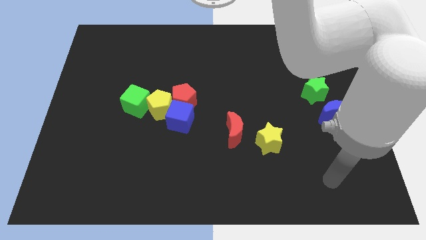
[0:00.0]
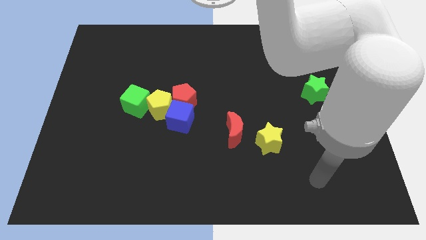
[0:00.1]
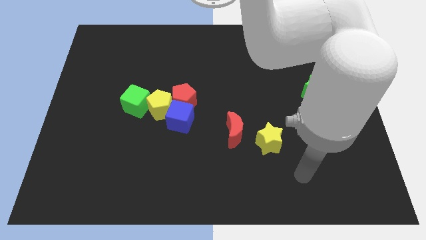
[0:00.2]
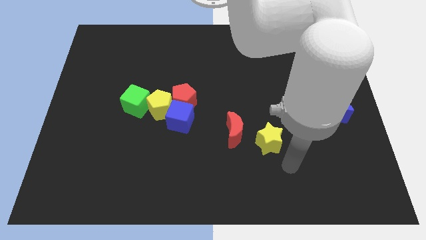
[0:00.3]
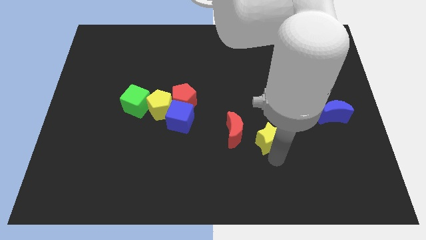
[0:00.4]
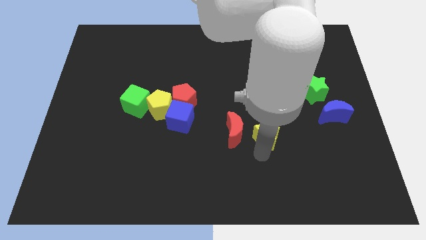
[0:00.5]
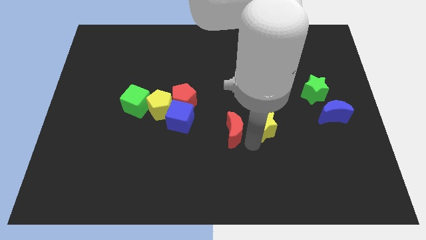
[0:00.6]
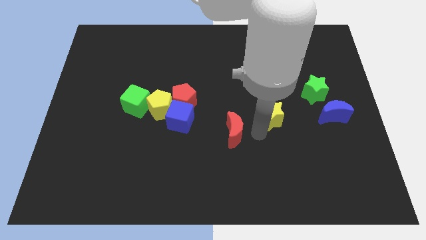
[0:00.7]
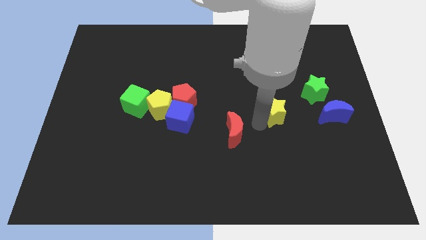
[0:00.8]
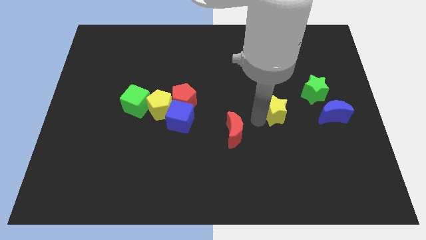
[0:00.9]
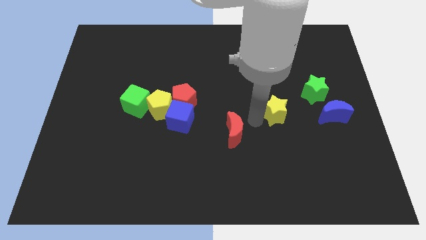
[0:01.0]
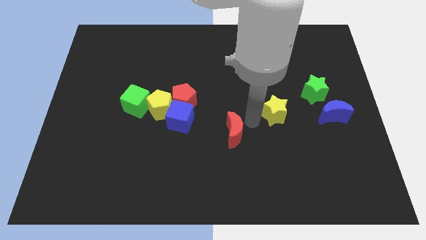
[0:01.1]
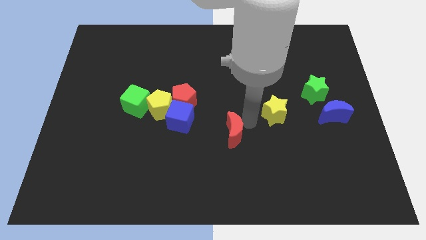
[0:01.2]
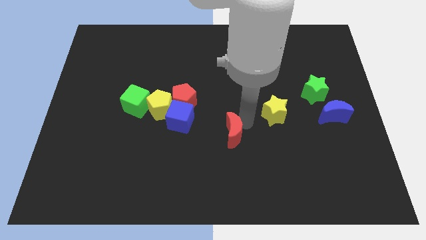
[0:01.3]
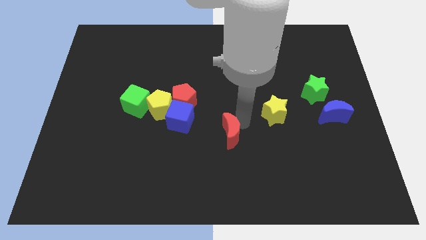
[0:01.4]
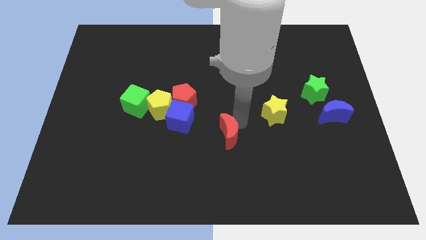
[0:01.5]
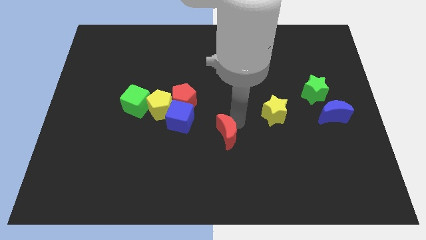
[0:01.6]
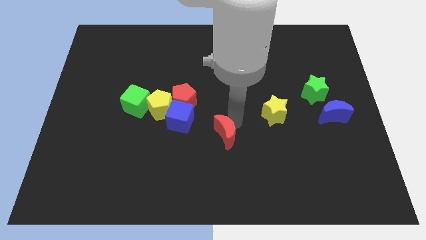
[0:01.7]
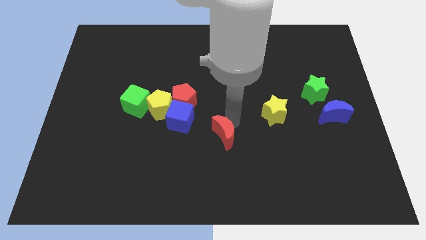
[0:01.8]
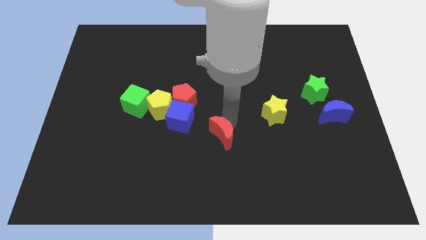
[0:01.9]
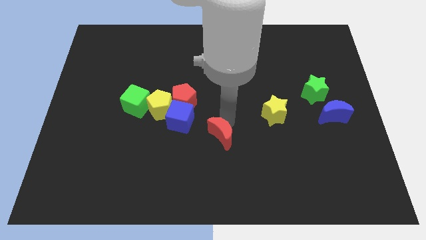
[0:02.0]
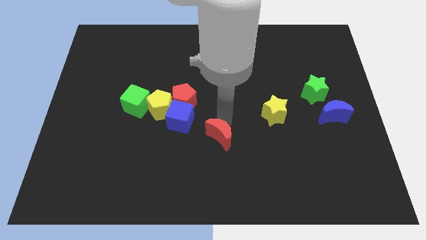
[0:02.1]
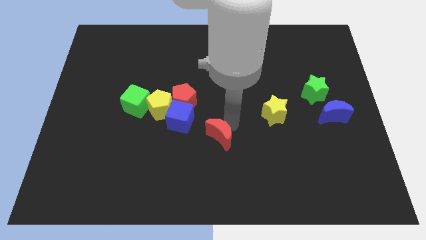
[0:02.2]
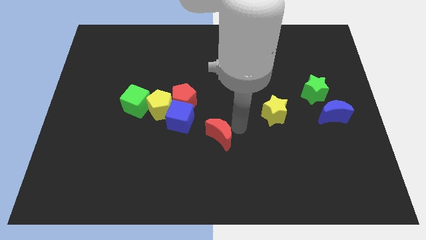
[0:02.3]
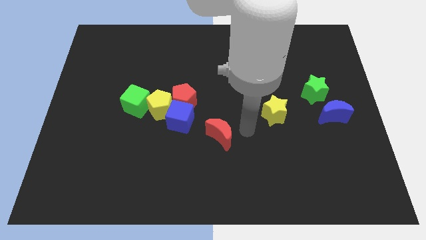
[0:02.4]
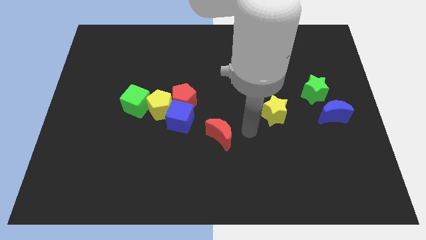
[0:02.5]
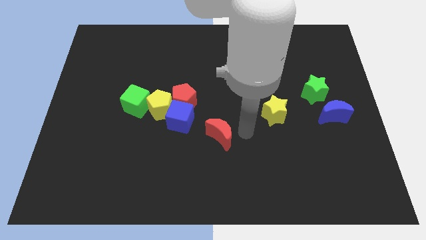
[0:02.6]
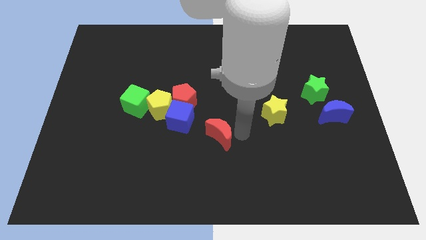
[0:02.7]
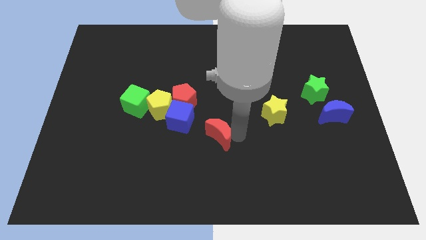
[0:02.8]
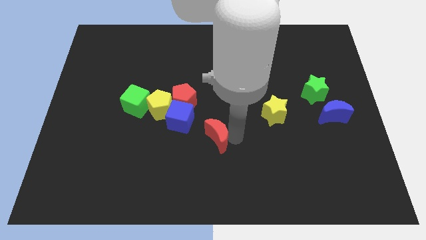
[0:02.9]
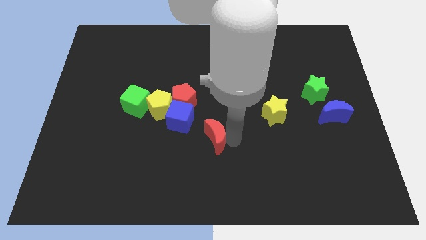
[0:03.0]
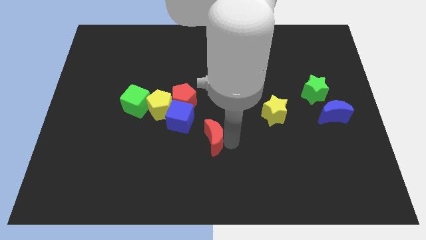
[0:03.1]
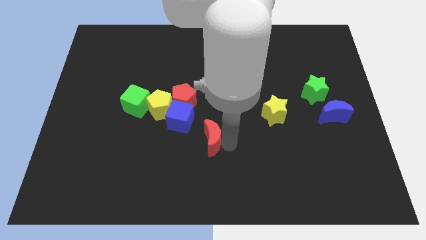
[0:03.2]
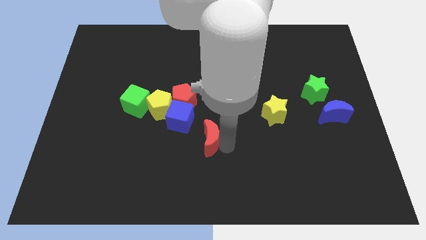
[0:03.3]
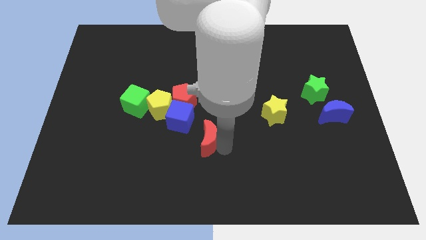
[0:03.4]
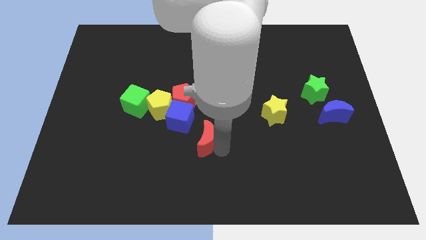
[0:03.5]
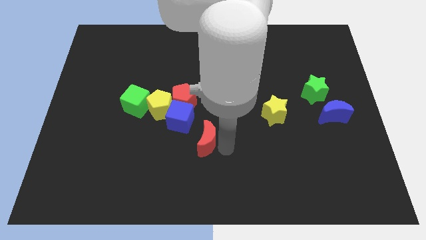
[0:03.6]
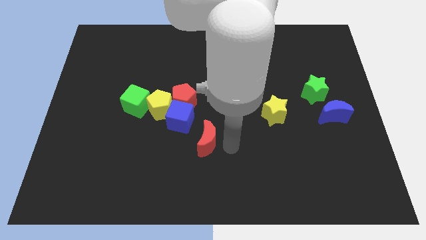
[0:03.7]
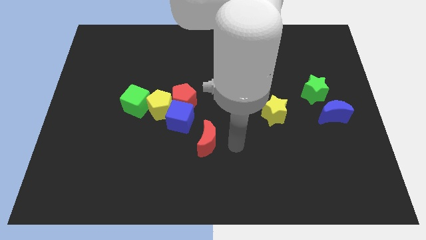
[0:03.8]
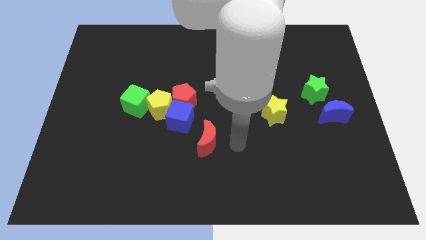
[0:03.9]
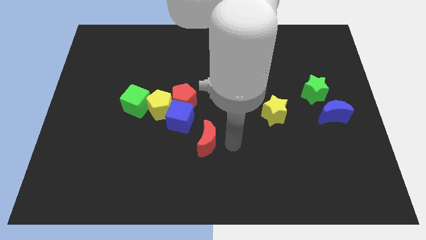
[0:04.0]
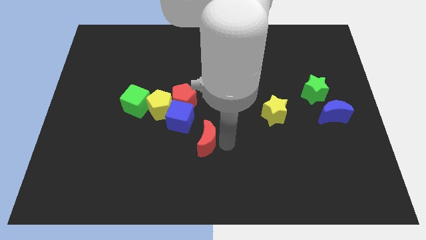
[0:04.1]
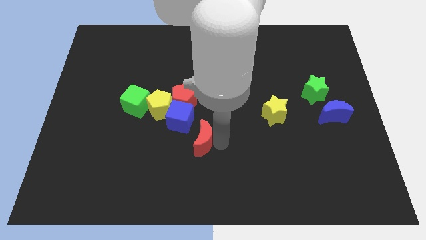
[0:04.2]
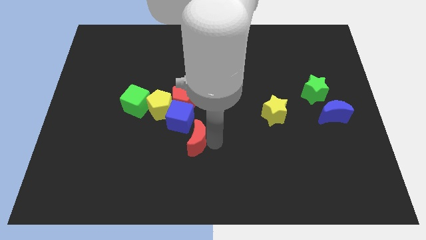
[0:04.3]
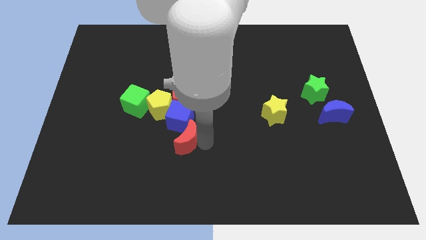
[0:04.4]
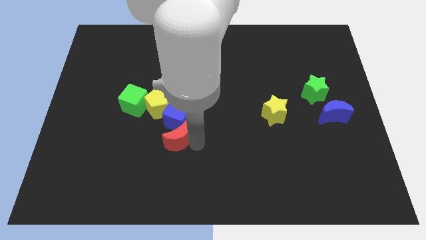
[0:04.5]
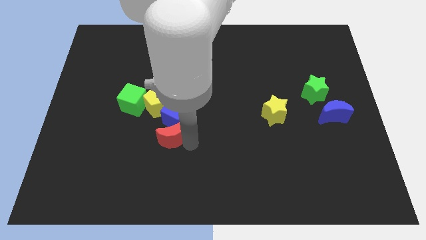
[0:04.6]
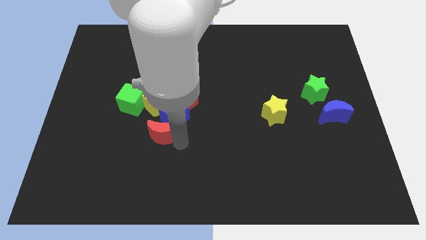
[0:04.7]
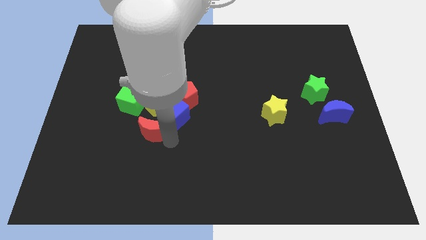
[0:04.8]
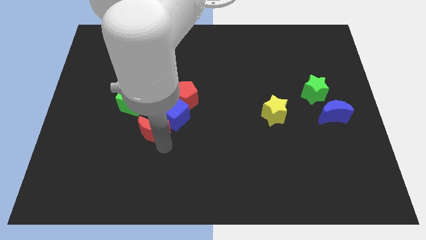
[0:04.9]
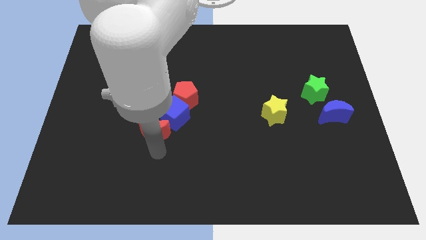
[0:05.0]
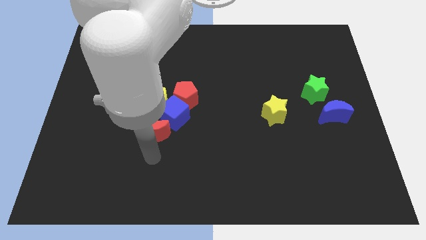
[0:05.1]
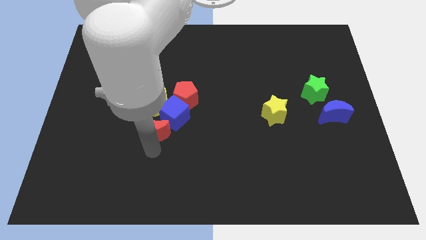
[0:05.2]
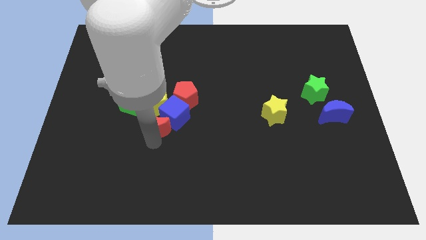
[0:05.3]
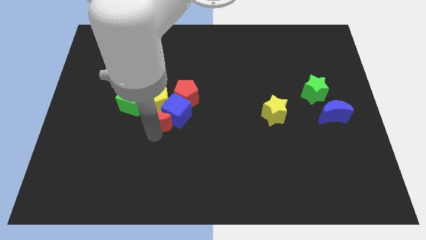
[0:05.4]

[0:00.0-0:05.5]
slide the red moon next to the yellow pentagon

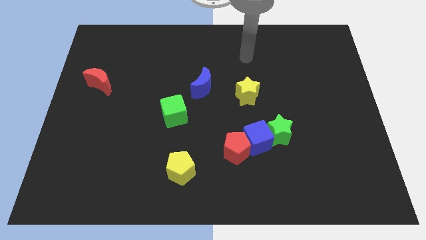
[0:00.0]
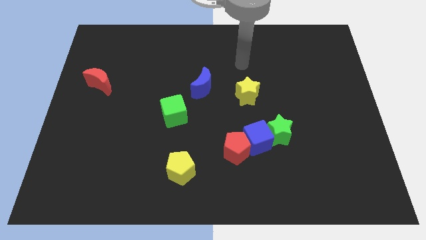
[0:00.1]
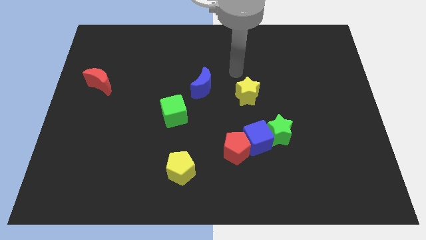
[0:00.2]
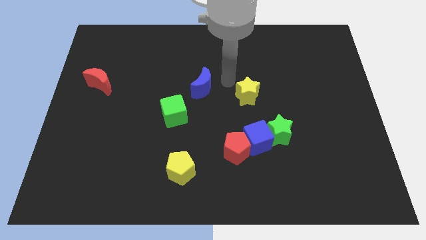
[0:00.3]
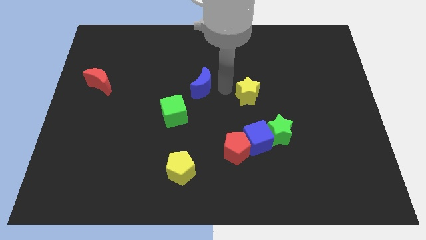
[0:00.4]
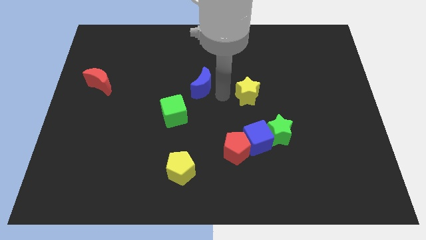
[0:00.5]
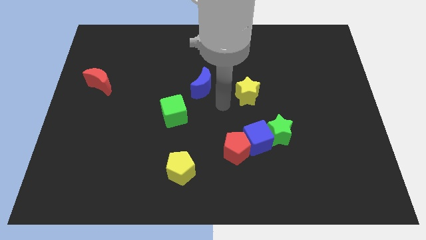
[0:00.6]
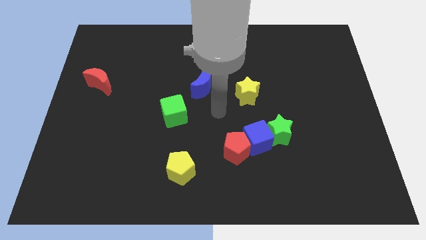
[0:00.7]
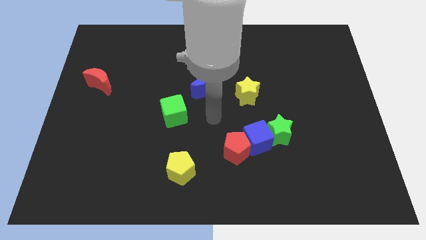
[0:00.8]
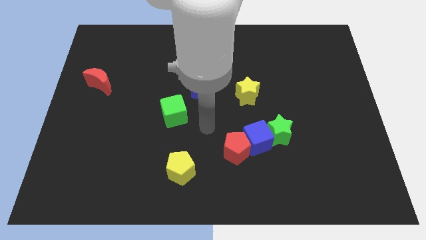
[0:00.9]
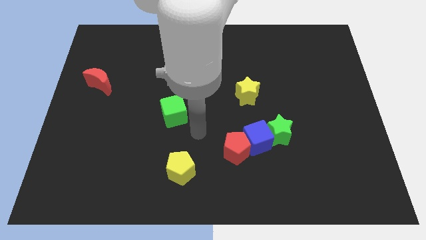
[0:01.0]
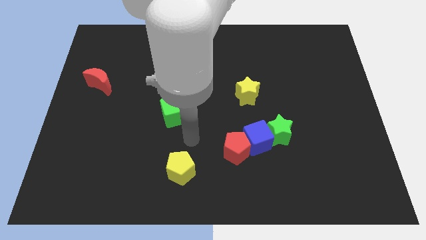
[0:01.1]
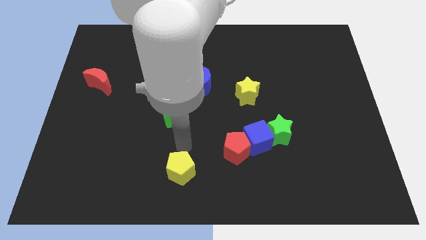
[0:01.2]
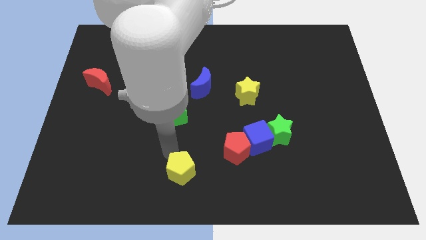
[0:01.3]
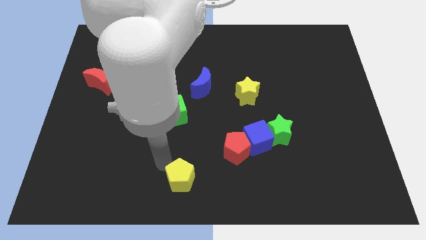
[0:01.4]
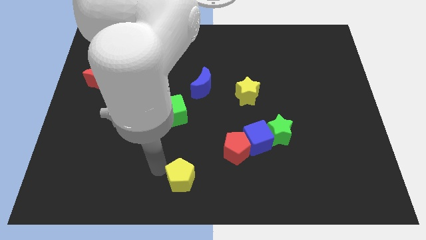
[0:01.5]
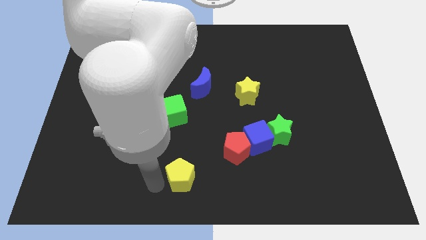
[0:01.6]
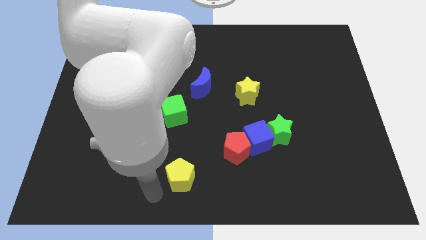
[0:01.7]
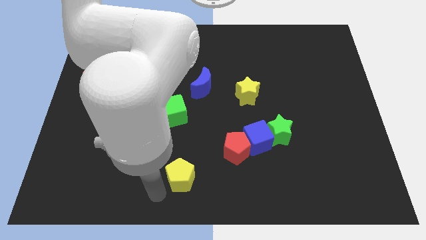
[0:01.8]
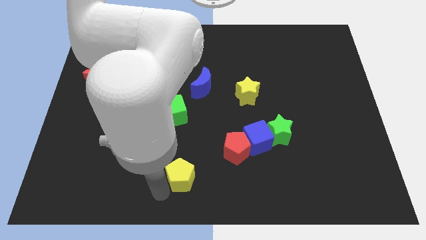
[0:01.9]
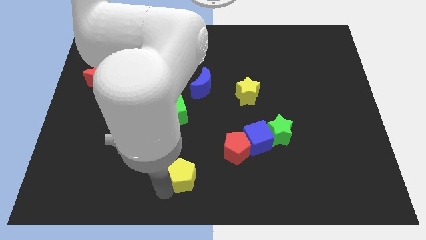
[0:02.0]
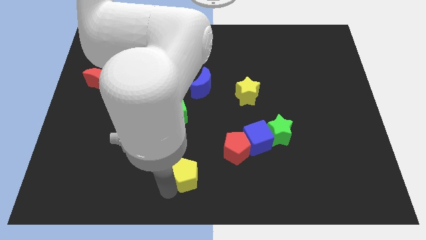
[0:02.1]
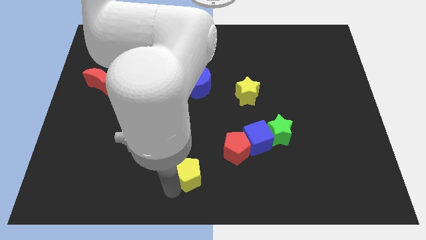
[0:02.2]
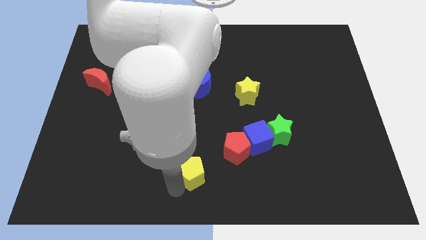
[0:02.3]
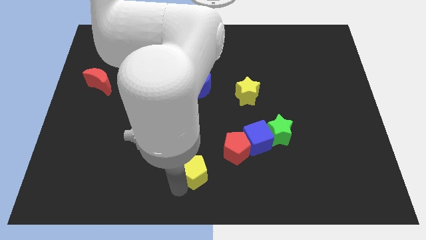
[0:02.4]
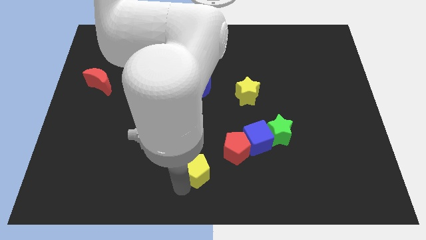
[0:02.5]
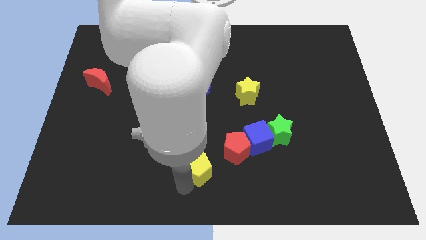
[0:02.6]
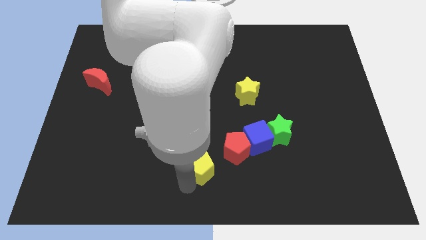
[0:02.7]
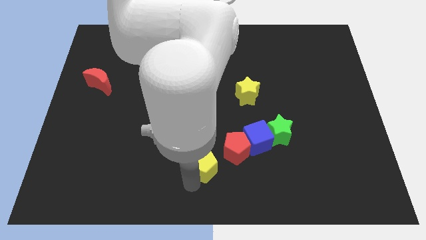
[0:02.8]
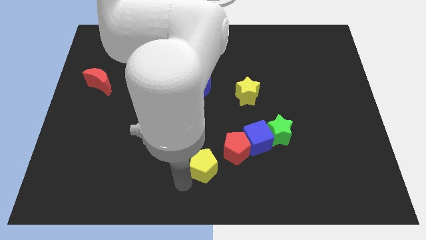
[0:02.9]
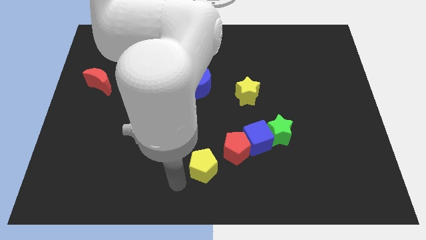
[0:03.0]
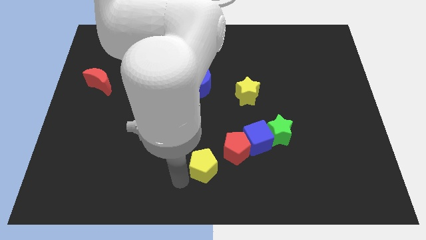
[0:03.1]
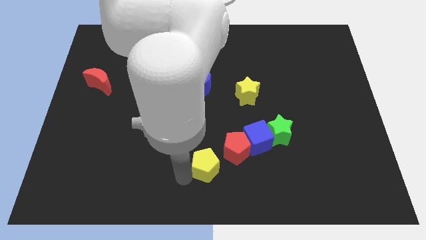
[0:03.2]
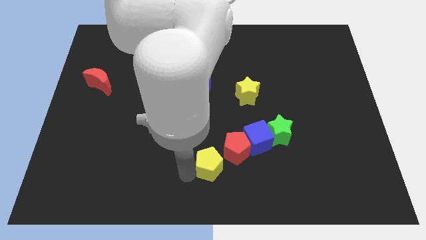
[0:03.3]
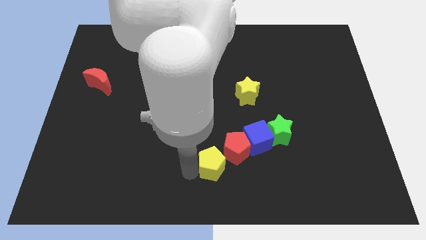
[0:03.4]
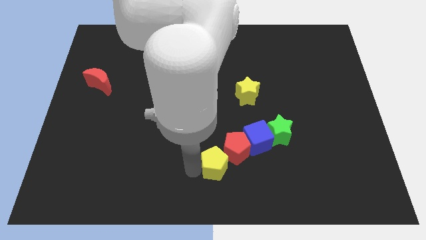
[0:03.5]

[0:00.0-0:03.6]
push the yellow pentagon next to the red pentagon
